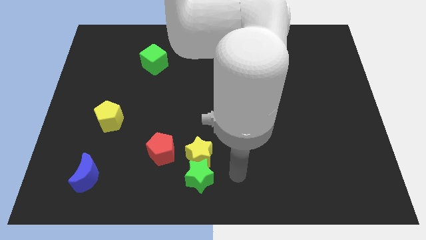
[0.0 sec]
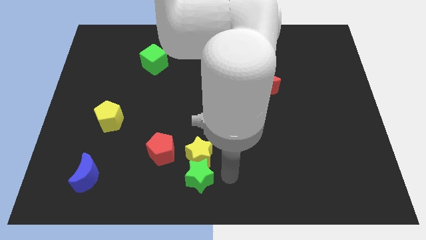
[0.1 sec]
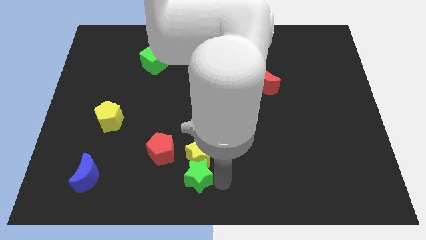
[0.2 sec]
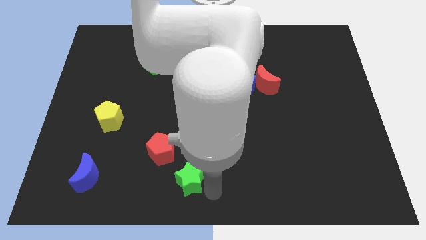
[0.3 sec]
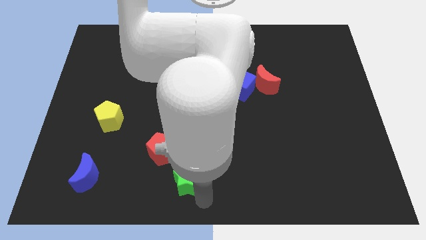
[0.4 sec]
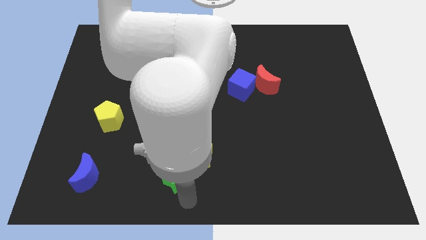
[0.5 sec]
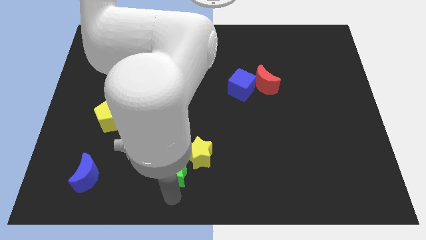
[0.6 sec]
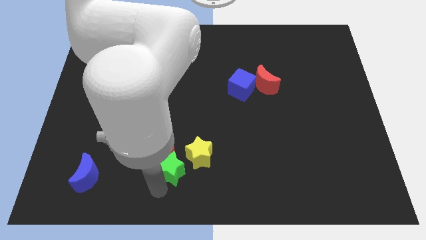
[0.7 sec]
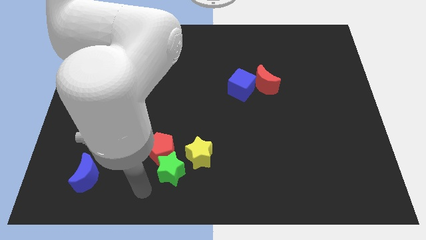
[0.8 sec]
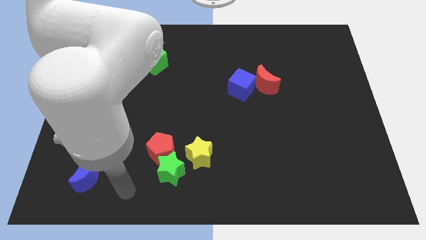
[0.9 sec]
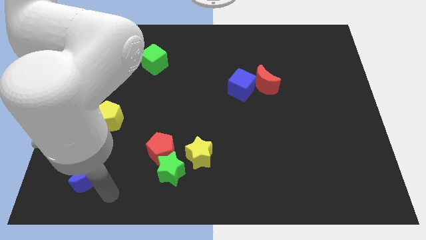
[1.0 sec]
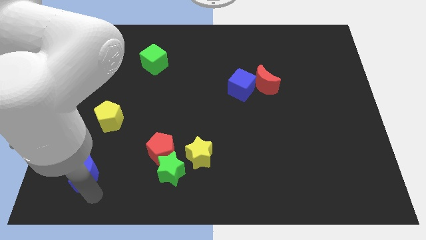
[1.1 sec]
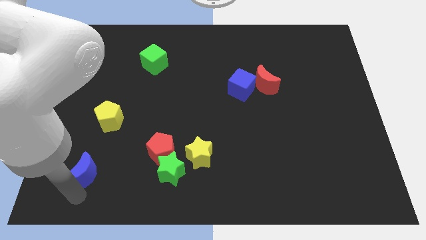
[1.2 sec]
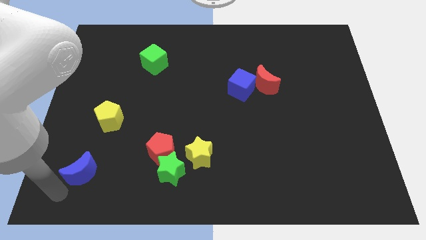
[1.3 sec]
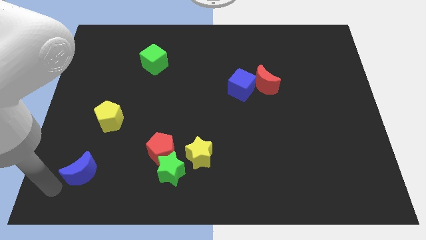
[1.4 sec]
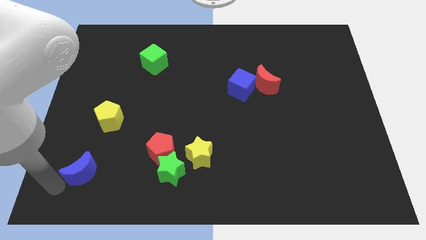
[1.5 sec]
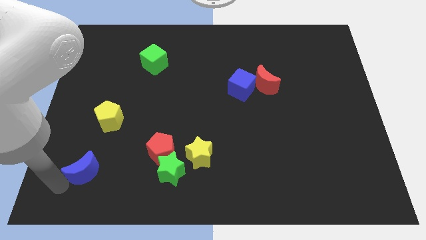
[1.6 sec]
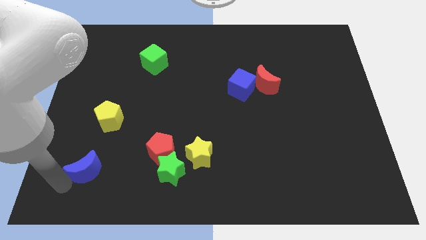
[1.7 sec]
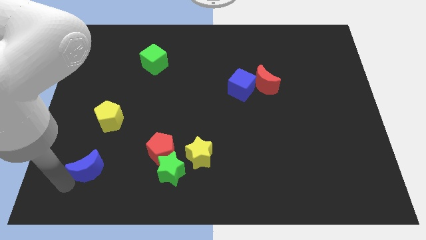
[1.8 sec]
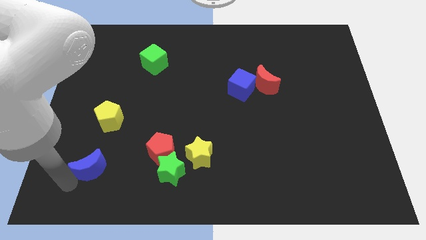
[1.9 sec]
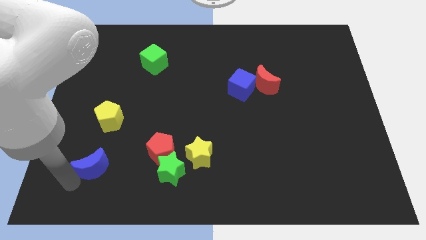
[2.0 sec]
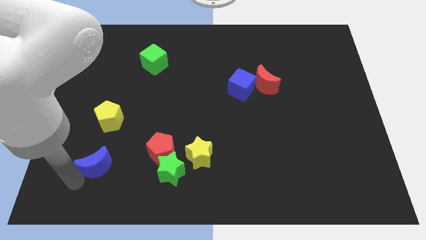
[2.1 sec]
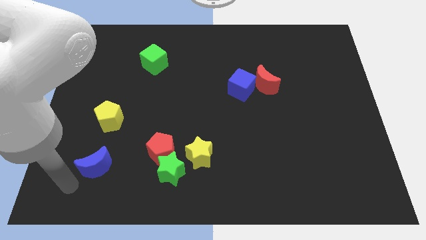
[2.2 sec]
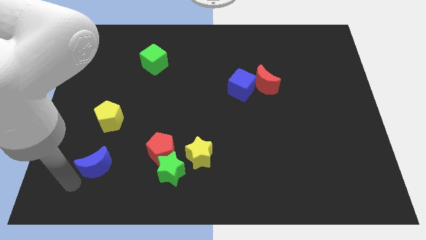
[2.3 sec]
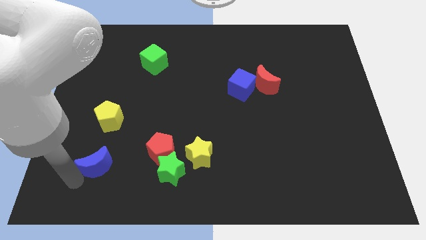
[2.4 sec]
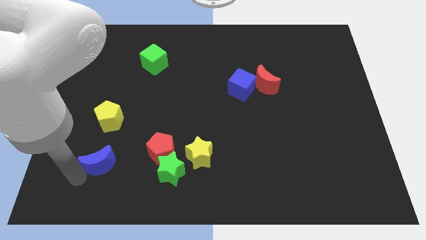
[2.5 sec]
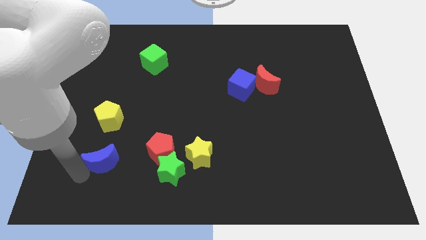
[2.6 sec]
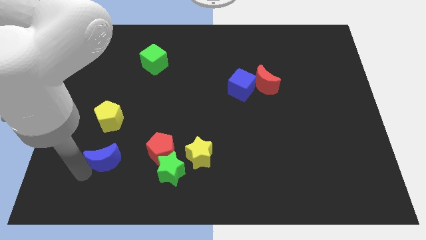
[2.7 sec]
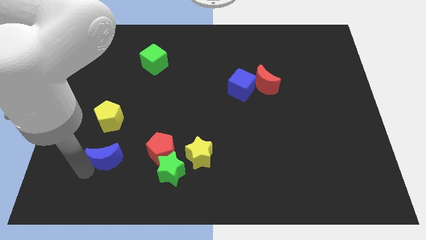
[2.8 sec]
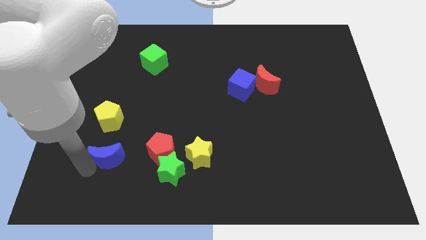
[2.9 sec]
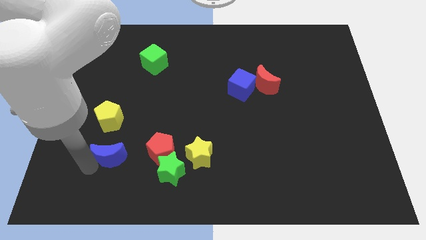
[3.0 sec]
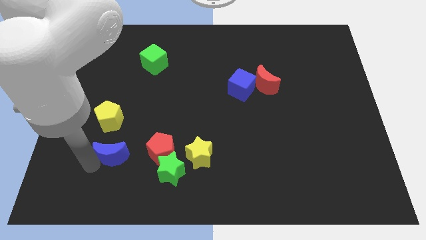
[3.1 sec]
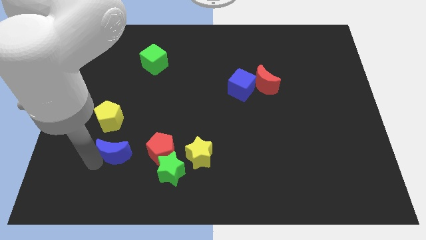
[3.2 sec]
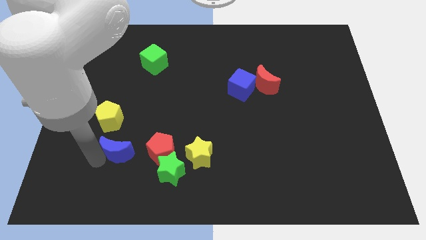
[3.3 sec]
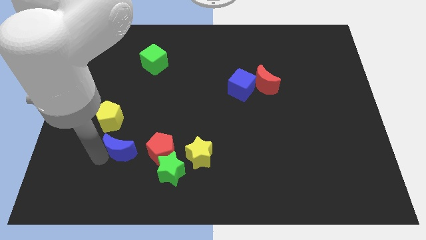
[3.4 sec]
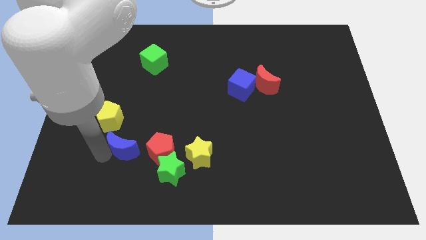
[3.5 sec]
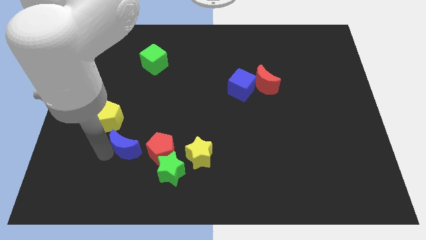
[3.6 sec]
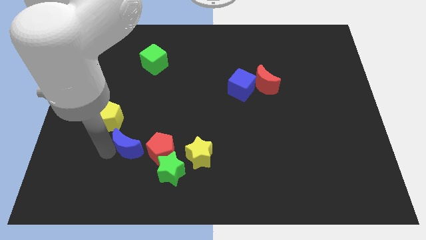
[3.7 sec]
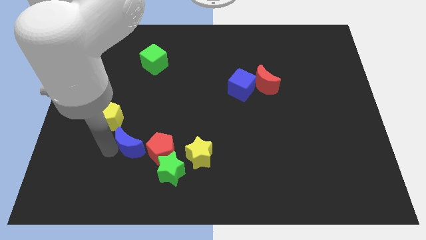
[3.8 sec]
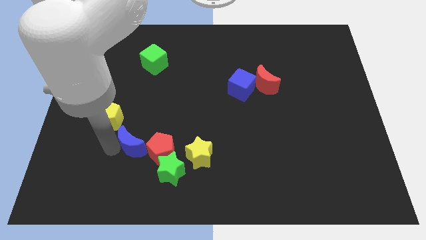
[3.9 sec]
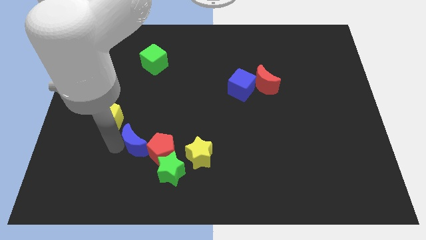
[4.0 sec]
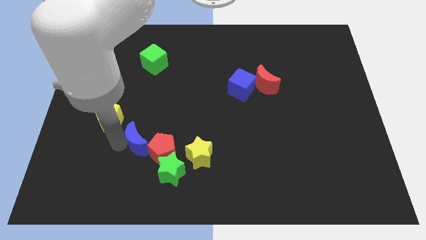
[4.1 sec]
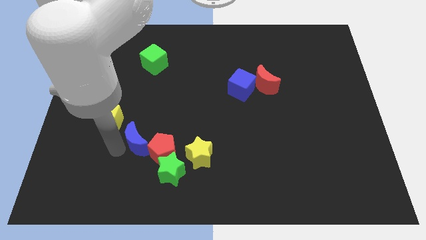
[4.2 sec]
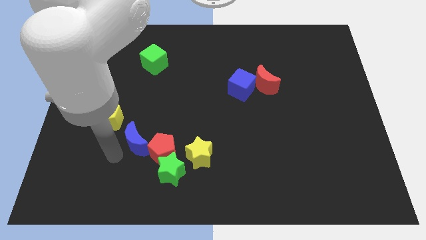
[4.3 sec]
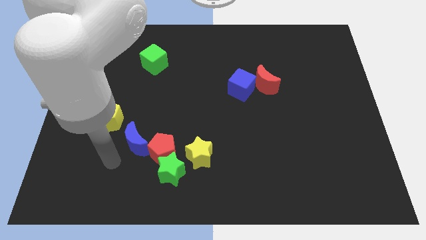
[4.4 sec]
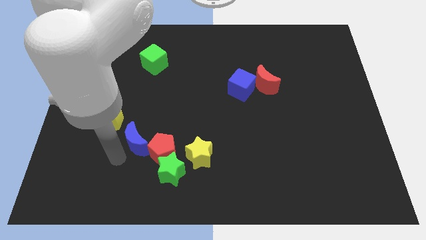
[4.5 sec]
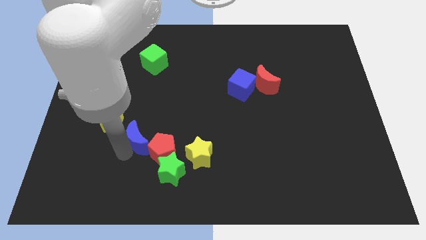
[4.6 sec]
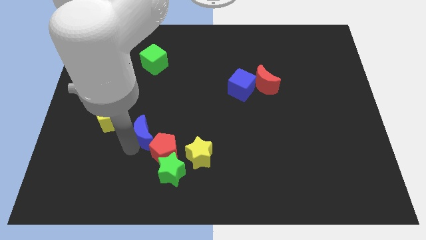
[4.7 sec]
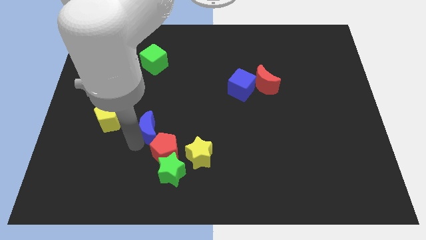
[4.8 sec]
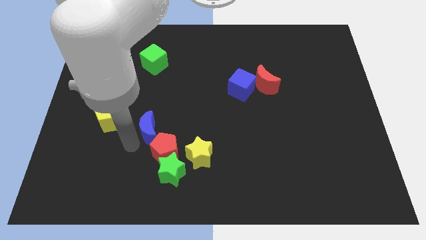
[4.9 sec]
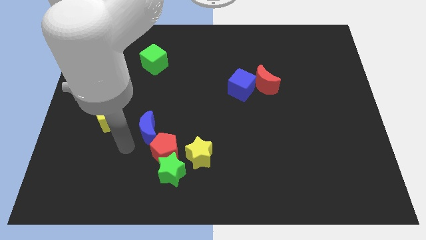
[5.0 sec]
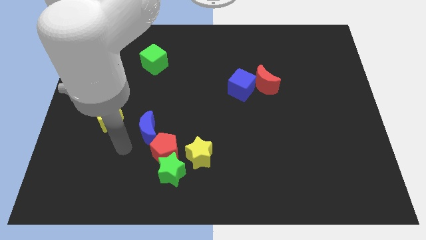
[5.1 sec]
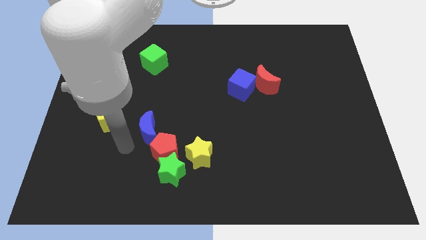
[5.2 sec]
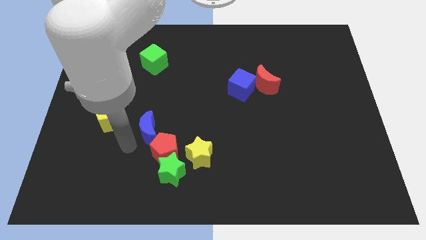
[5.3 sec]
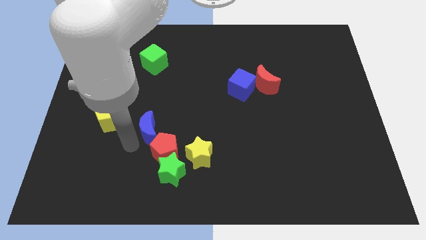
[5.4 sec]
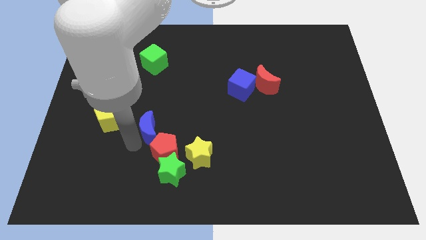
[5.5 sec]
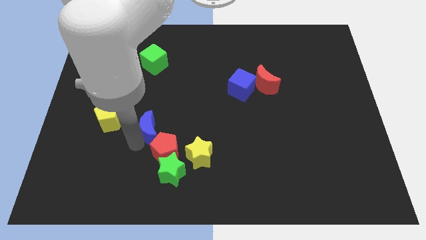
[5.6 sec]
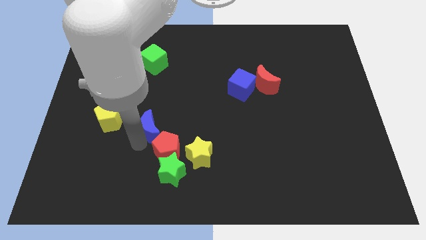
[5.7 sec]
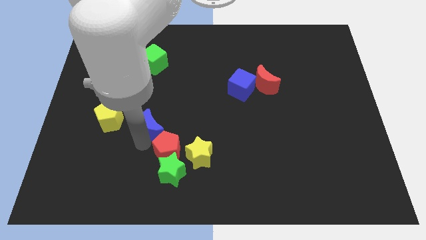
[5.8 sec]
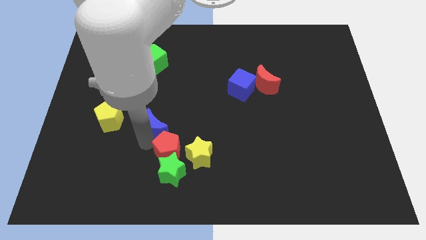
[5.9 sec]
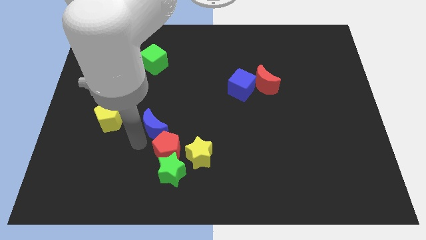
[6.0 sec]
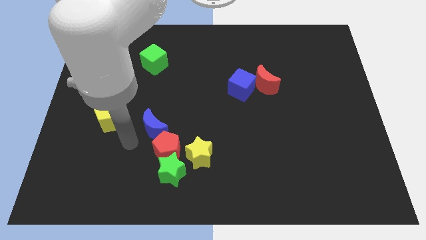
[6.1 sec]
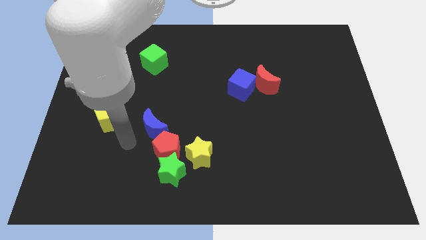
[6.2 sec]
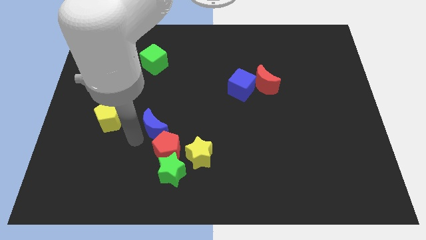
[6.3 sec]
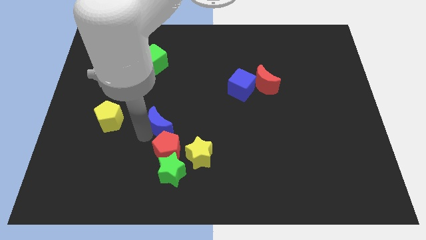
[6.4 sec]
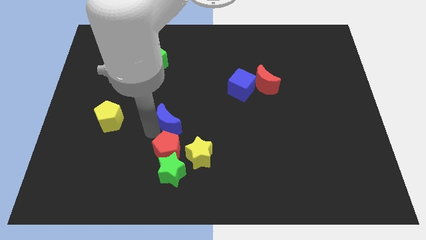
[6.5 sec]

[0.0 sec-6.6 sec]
move the blue moon to the center
